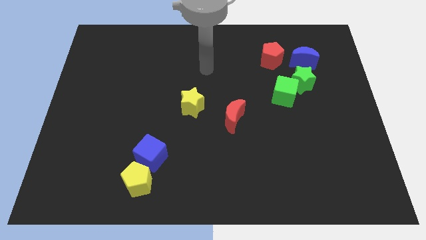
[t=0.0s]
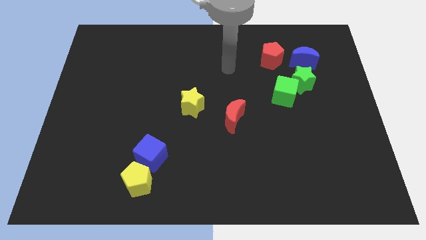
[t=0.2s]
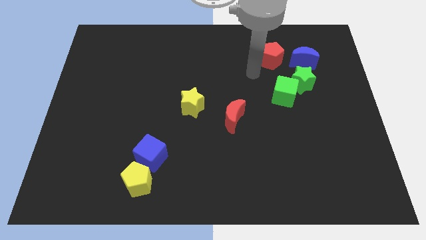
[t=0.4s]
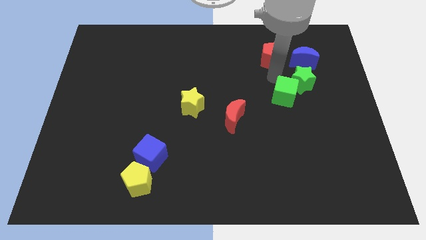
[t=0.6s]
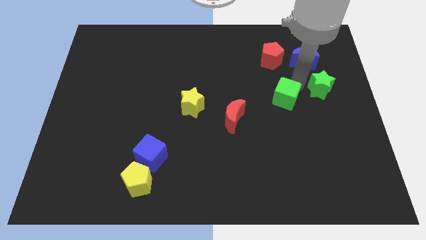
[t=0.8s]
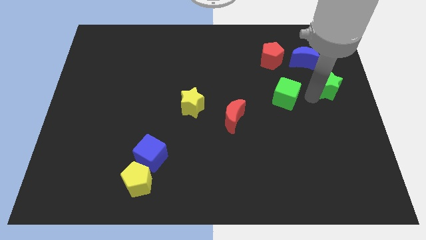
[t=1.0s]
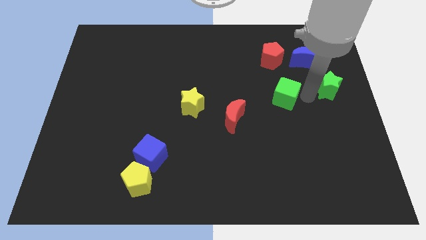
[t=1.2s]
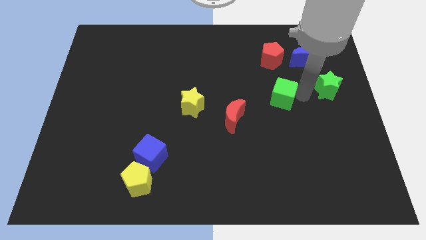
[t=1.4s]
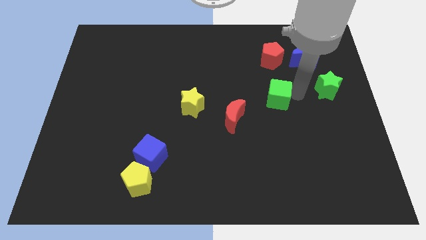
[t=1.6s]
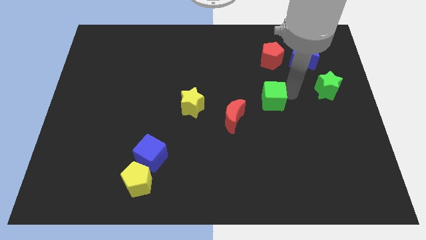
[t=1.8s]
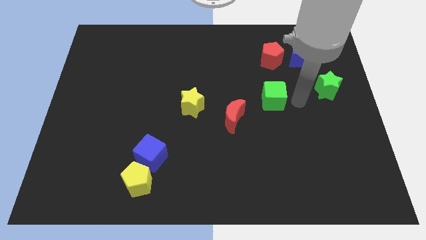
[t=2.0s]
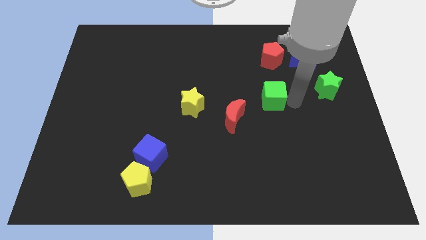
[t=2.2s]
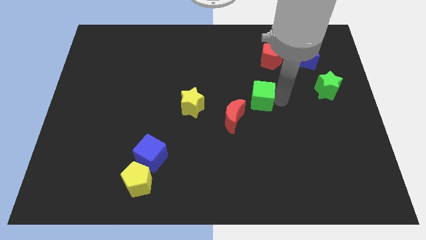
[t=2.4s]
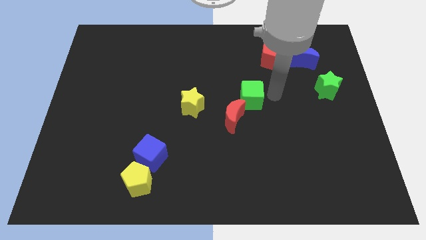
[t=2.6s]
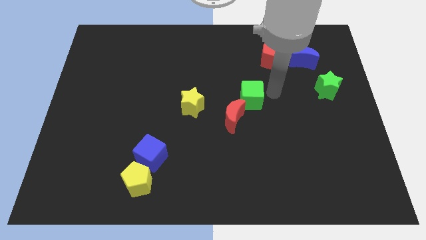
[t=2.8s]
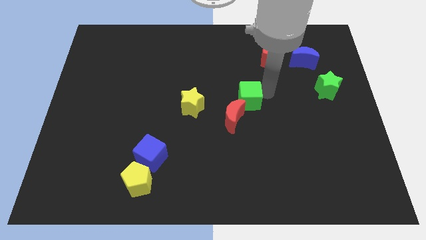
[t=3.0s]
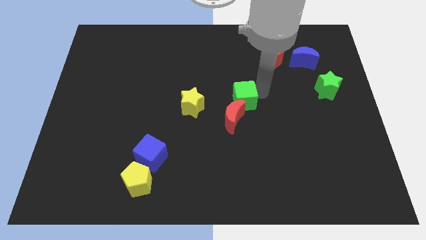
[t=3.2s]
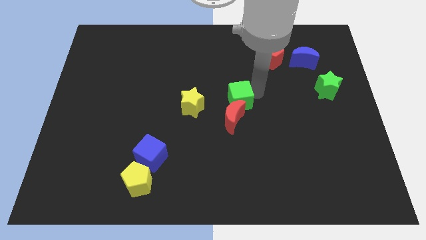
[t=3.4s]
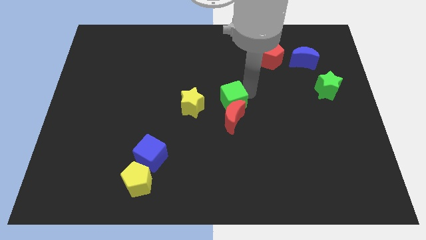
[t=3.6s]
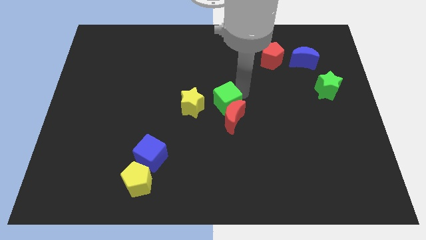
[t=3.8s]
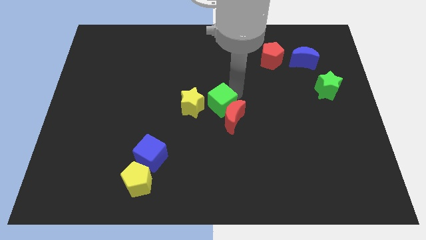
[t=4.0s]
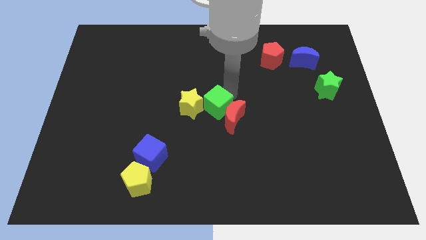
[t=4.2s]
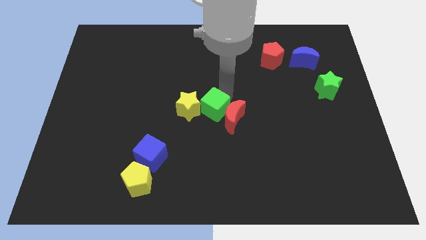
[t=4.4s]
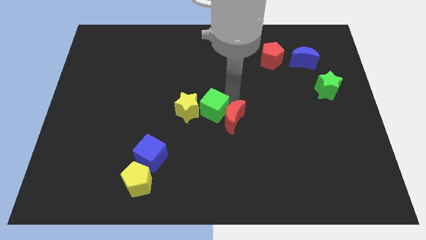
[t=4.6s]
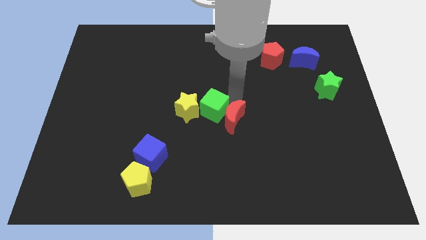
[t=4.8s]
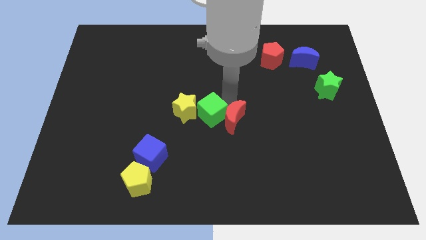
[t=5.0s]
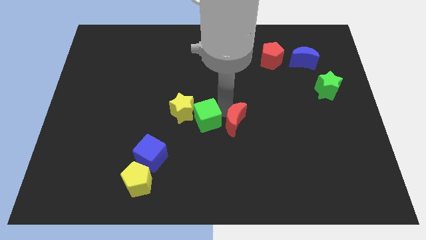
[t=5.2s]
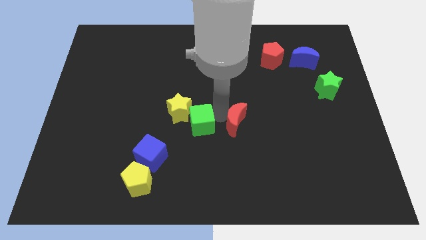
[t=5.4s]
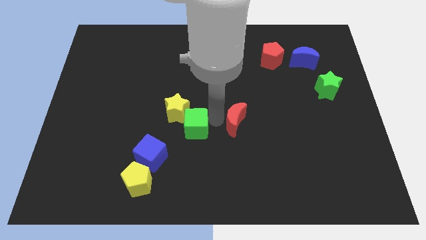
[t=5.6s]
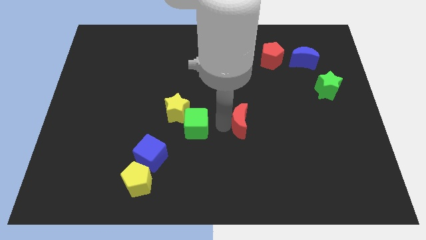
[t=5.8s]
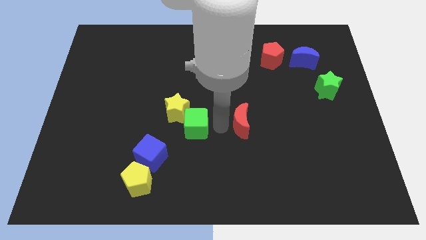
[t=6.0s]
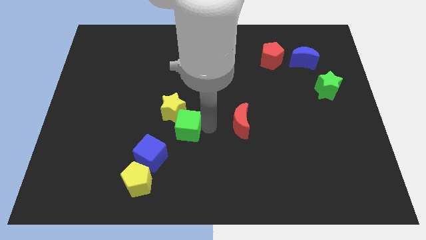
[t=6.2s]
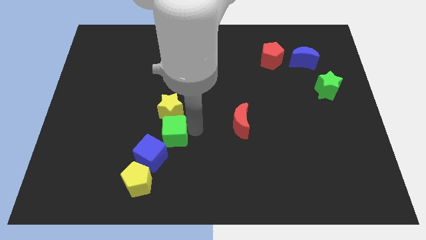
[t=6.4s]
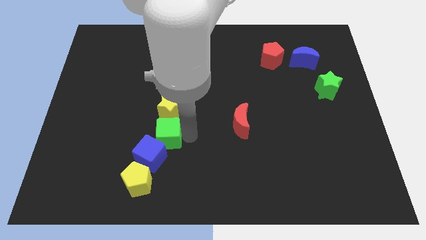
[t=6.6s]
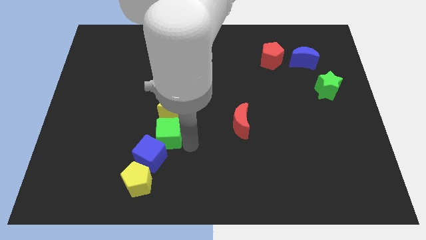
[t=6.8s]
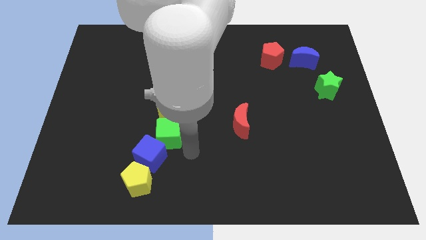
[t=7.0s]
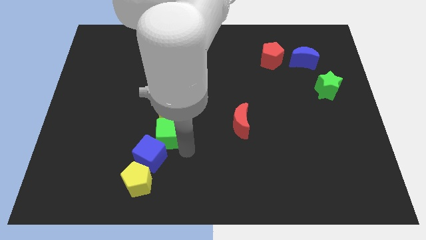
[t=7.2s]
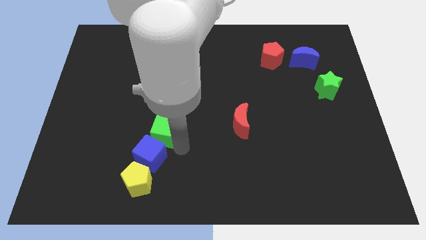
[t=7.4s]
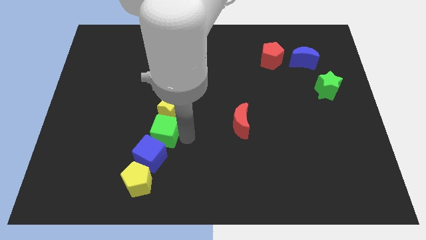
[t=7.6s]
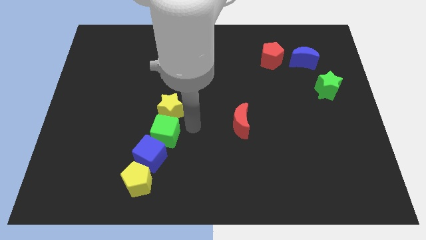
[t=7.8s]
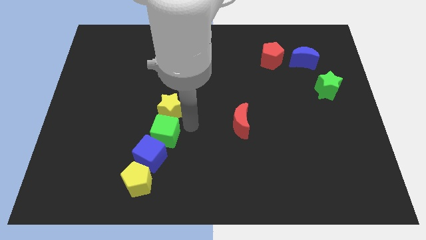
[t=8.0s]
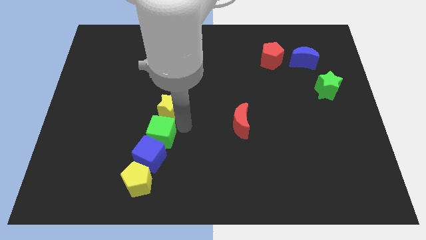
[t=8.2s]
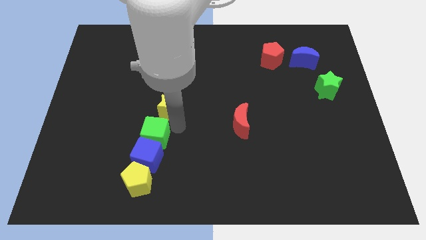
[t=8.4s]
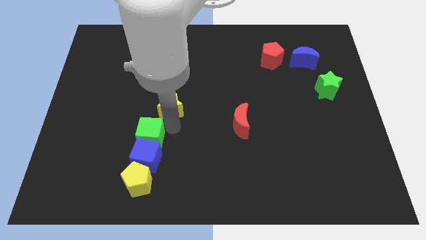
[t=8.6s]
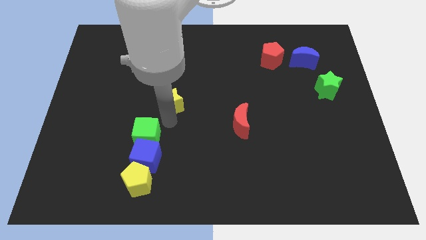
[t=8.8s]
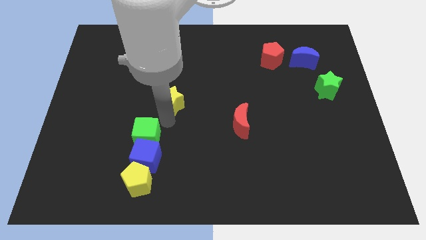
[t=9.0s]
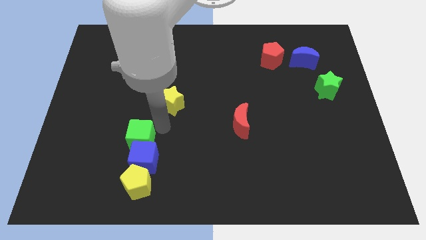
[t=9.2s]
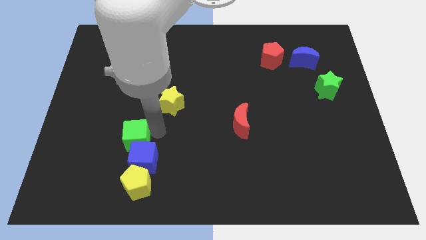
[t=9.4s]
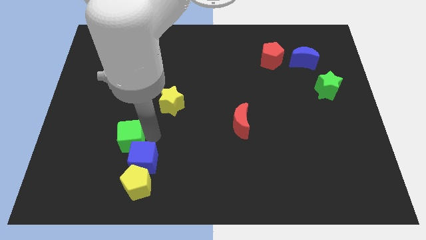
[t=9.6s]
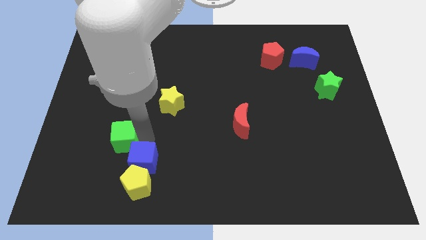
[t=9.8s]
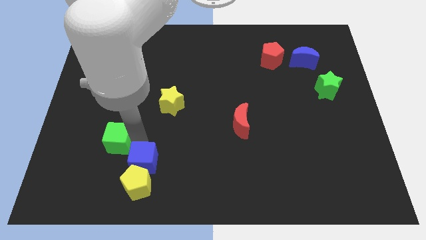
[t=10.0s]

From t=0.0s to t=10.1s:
move the green cube to the top left of the yellow pentagon

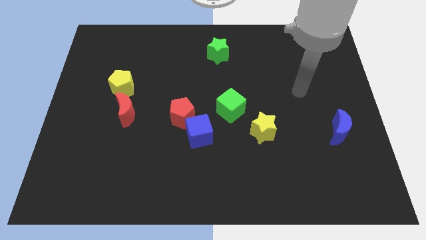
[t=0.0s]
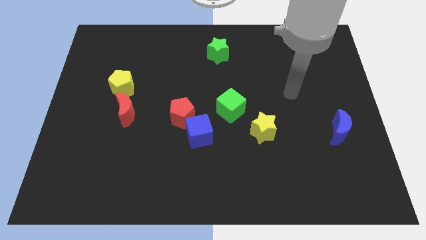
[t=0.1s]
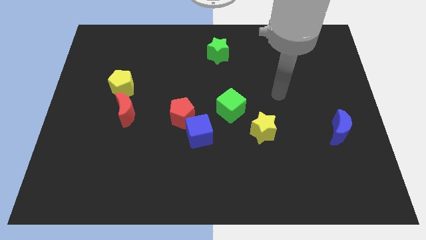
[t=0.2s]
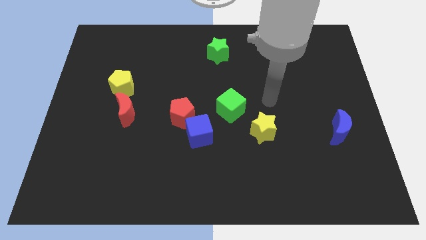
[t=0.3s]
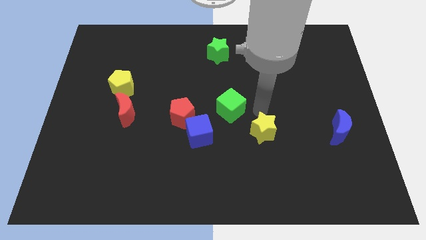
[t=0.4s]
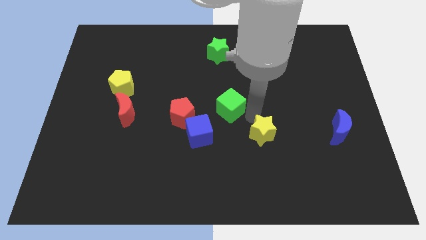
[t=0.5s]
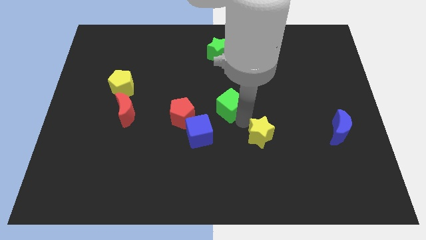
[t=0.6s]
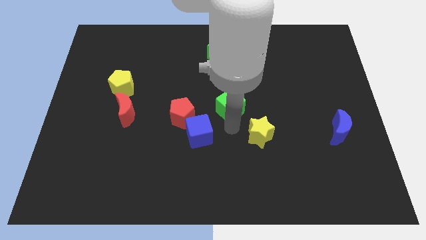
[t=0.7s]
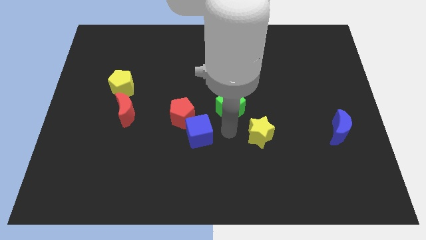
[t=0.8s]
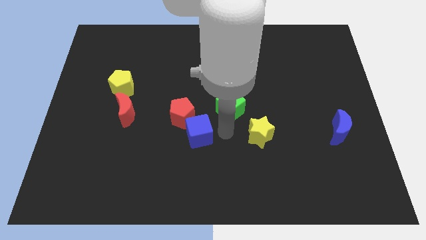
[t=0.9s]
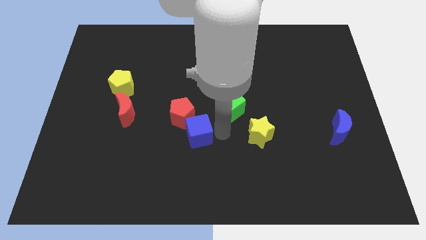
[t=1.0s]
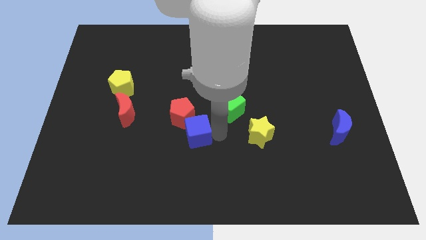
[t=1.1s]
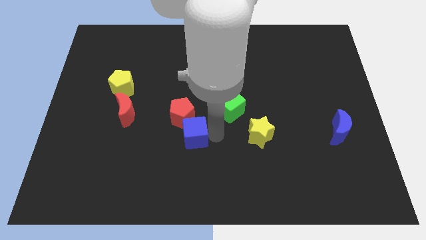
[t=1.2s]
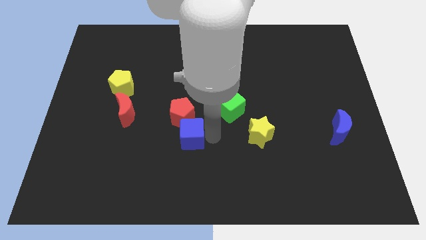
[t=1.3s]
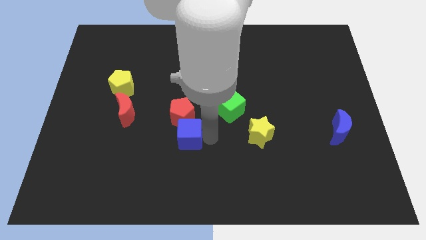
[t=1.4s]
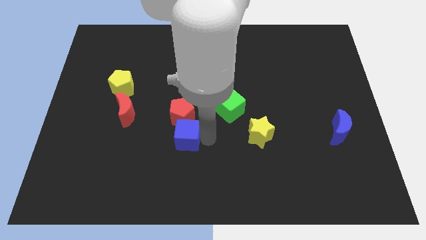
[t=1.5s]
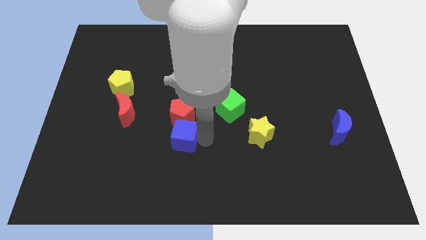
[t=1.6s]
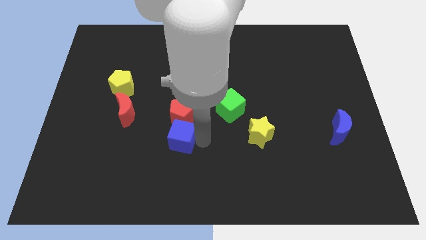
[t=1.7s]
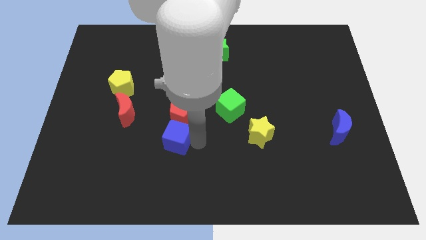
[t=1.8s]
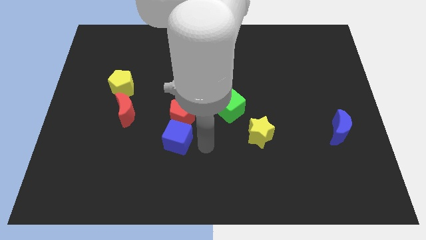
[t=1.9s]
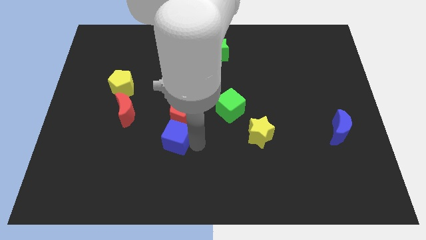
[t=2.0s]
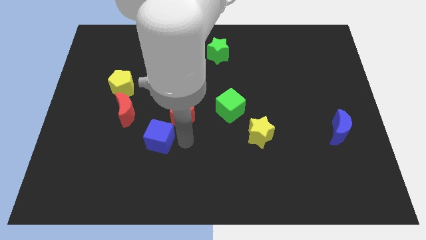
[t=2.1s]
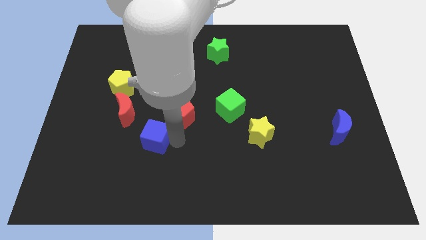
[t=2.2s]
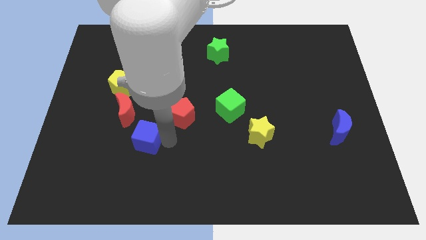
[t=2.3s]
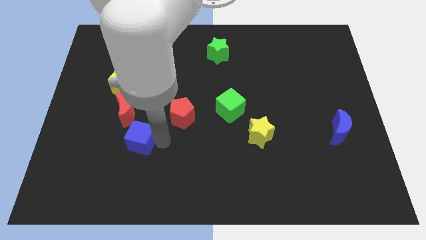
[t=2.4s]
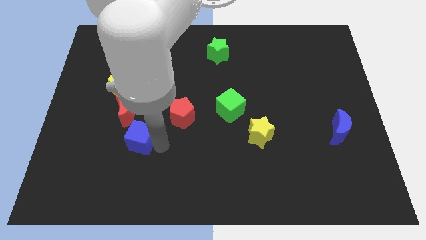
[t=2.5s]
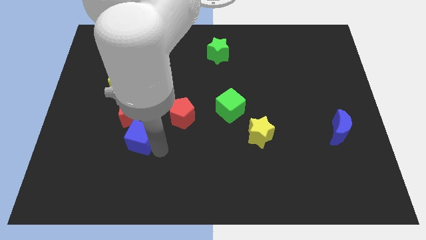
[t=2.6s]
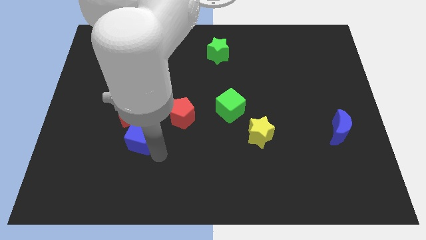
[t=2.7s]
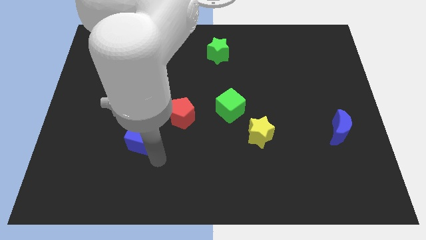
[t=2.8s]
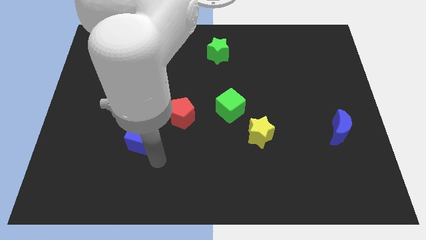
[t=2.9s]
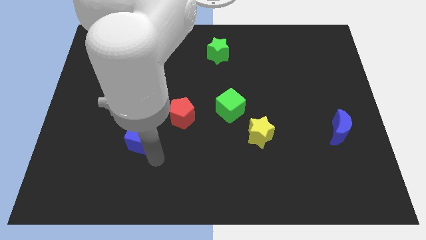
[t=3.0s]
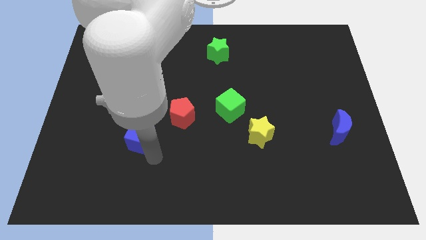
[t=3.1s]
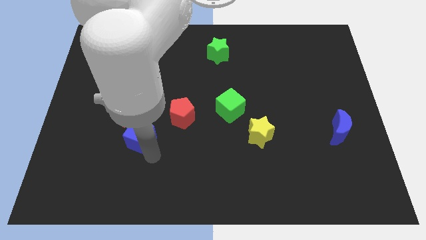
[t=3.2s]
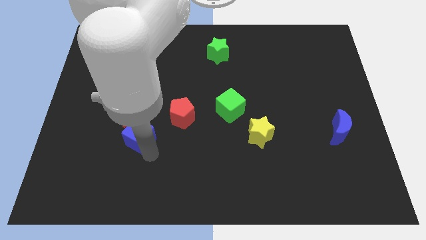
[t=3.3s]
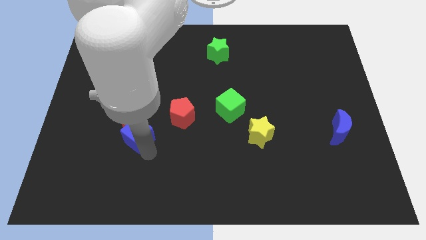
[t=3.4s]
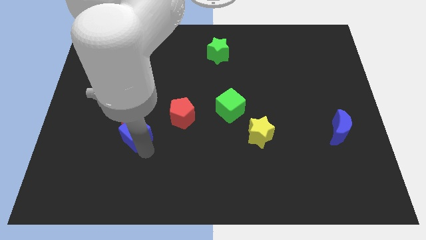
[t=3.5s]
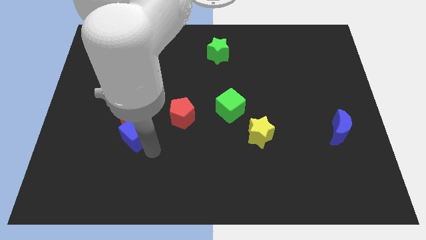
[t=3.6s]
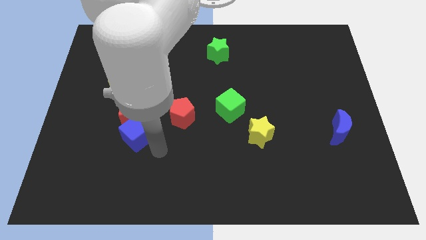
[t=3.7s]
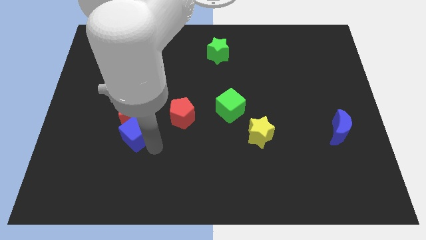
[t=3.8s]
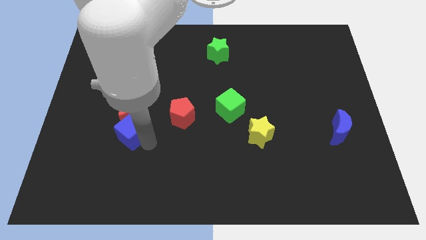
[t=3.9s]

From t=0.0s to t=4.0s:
put the blue cube to the bottom side of the yellow pentagon
